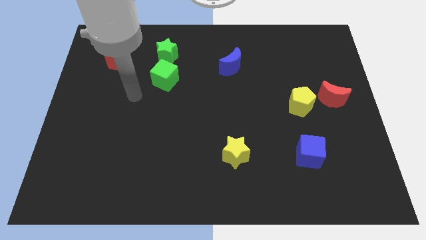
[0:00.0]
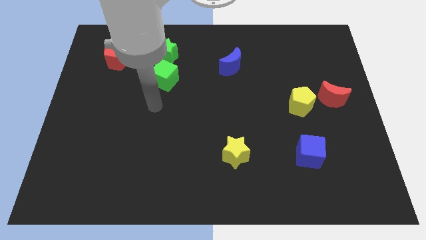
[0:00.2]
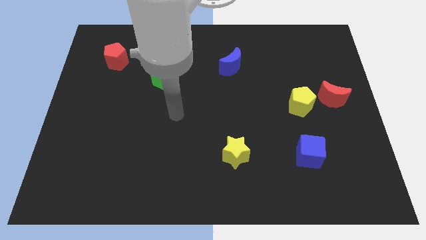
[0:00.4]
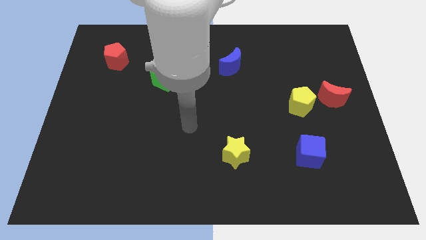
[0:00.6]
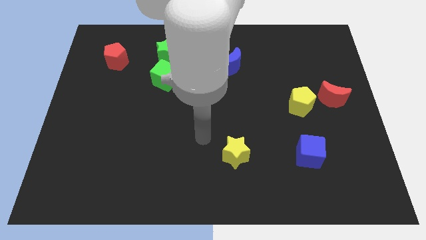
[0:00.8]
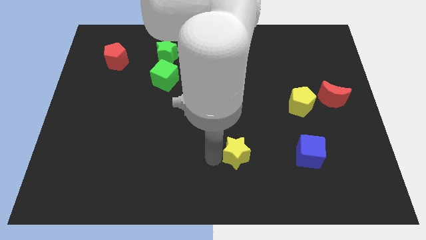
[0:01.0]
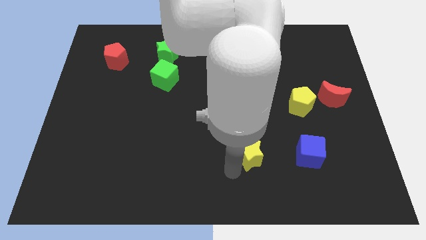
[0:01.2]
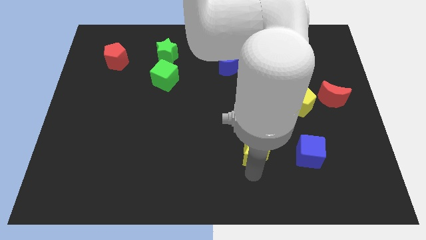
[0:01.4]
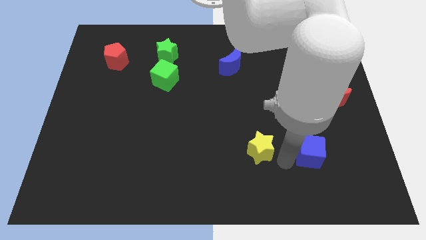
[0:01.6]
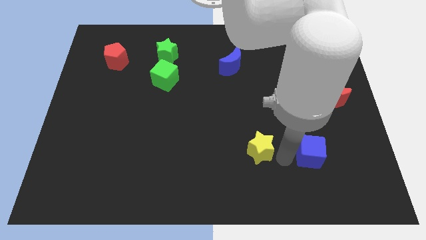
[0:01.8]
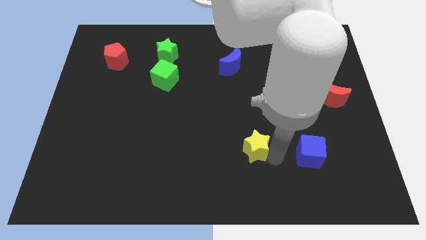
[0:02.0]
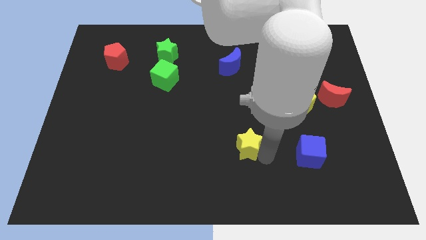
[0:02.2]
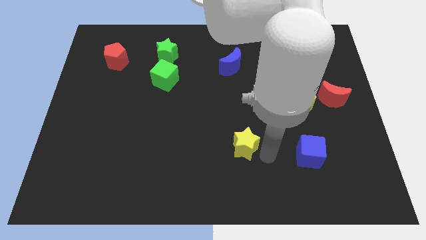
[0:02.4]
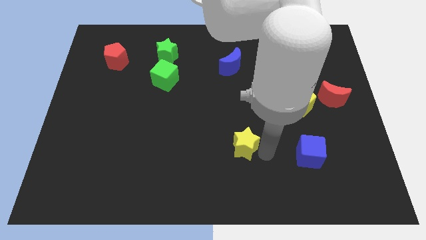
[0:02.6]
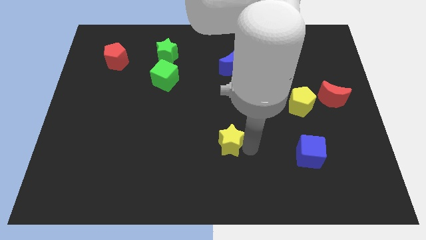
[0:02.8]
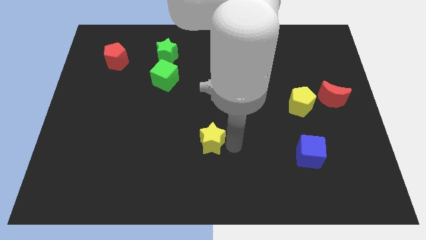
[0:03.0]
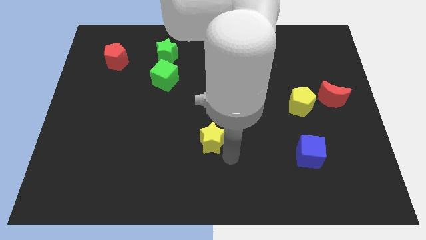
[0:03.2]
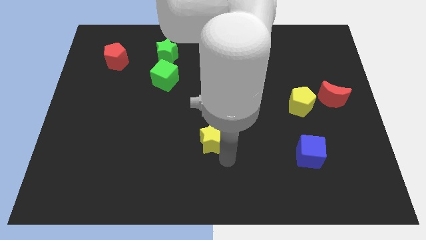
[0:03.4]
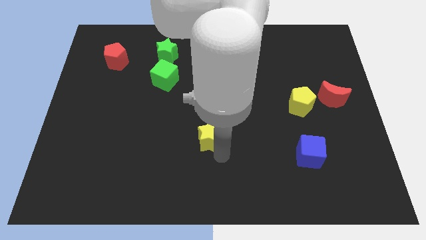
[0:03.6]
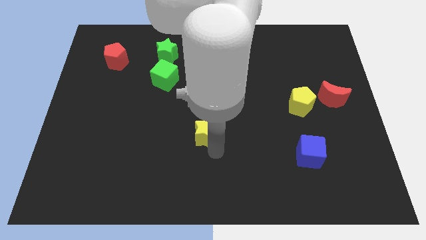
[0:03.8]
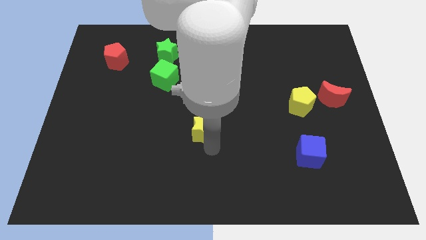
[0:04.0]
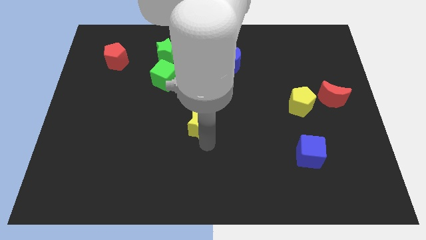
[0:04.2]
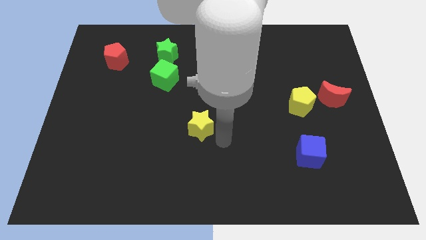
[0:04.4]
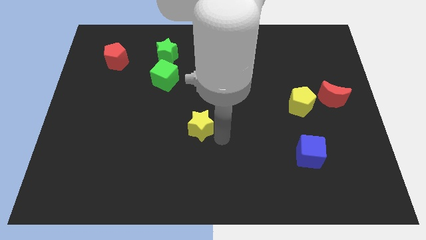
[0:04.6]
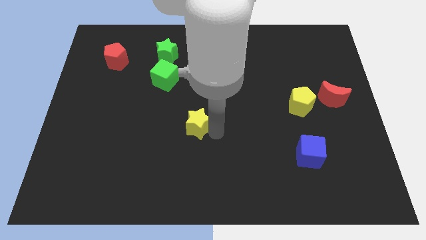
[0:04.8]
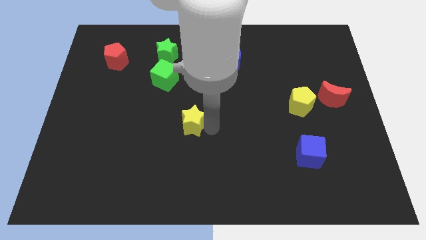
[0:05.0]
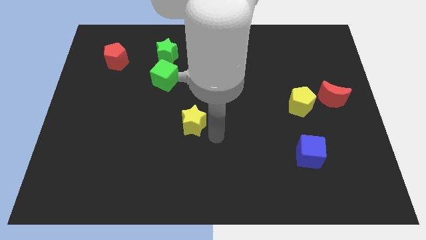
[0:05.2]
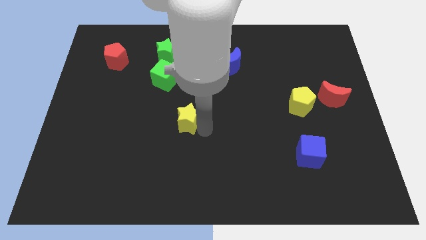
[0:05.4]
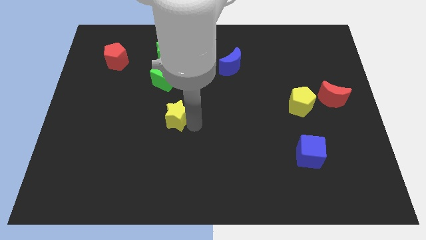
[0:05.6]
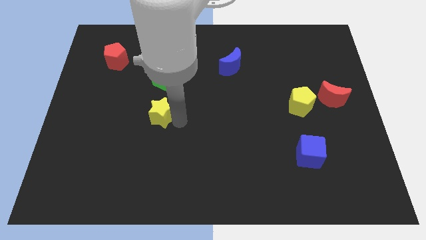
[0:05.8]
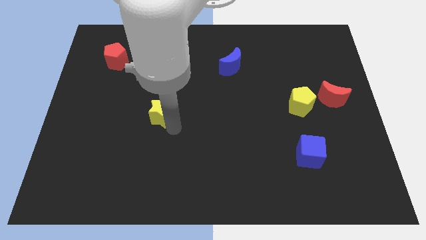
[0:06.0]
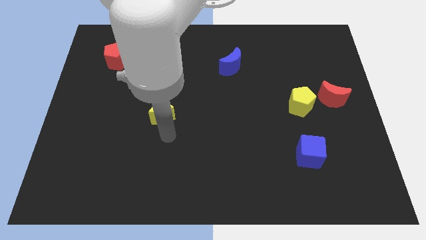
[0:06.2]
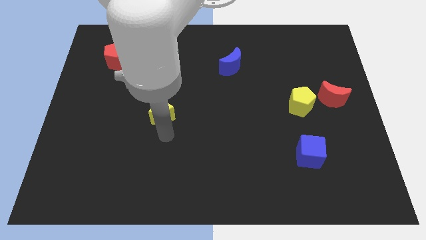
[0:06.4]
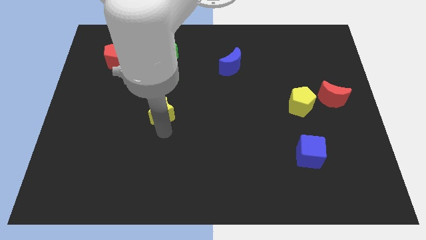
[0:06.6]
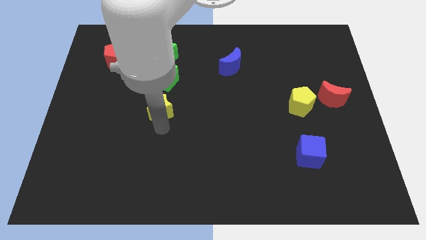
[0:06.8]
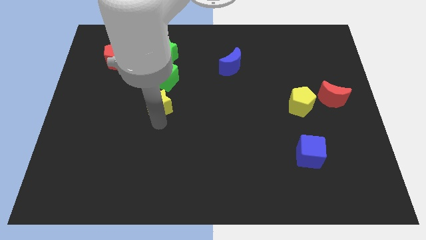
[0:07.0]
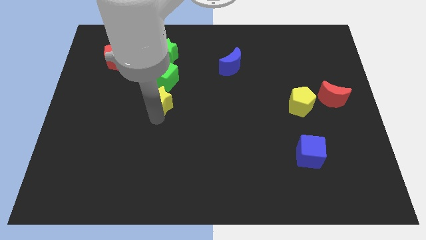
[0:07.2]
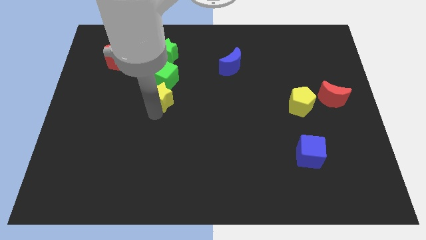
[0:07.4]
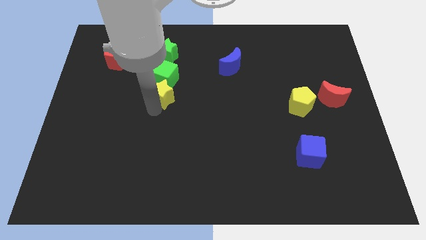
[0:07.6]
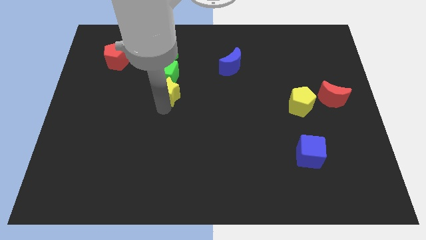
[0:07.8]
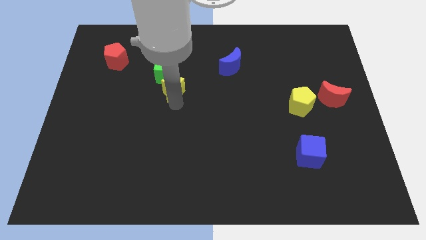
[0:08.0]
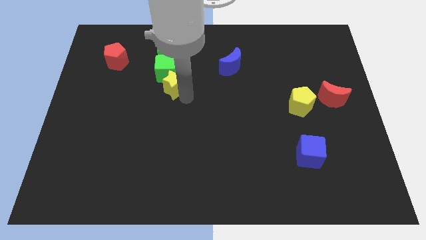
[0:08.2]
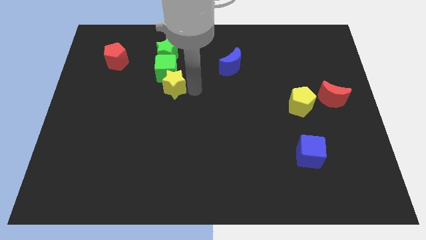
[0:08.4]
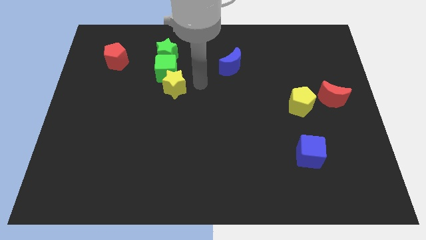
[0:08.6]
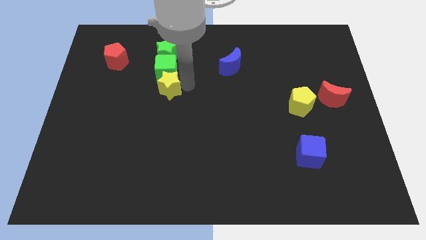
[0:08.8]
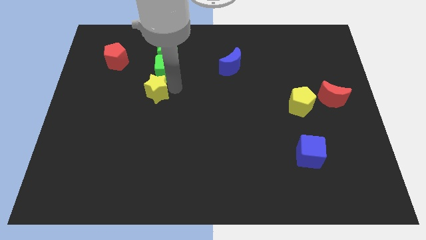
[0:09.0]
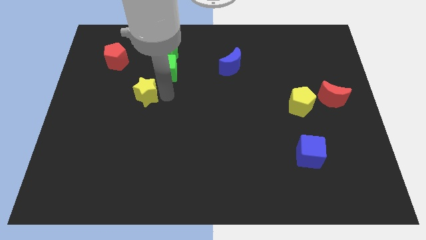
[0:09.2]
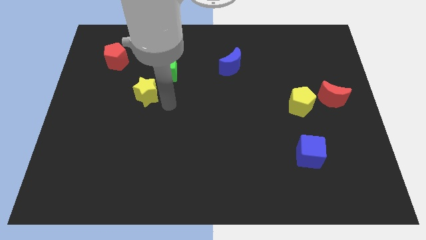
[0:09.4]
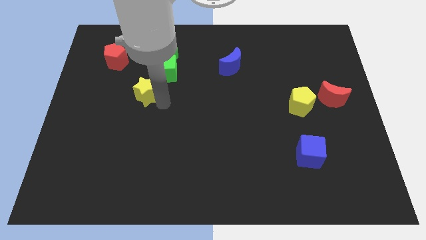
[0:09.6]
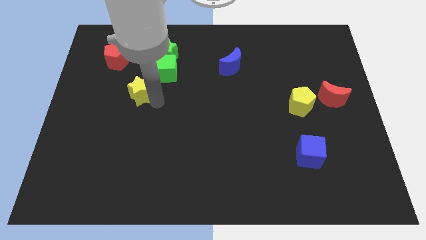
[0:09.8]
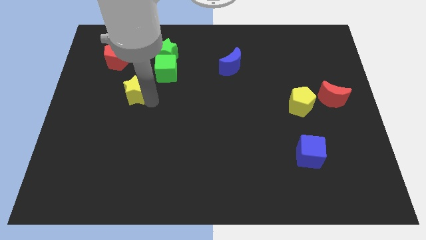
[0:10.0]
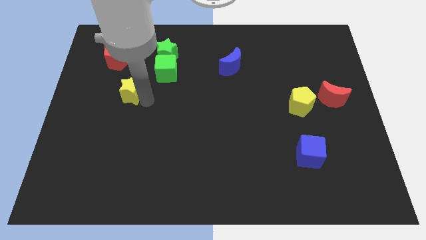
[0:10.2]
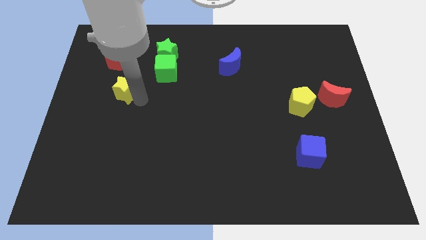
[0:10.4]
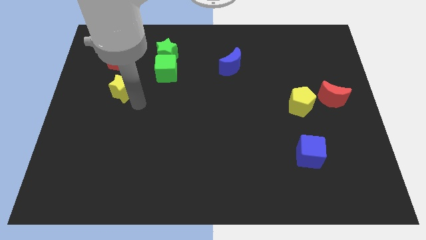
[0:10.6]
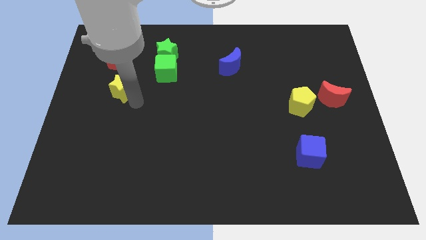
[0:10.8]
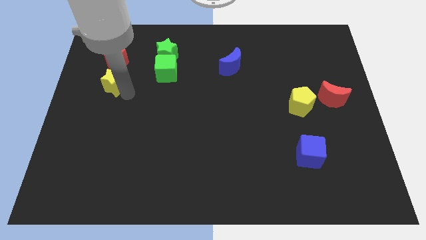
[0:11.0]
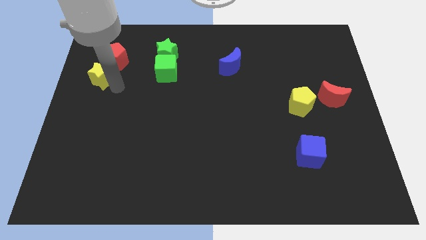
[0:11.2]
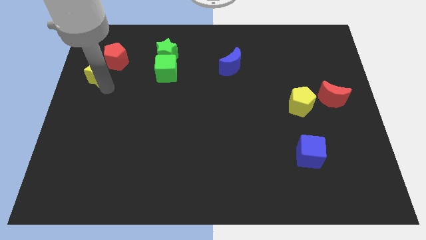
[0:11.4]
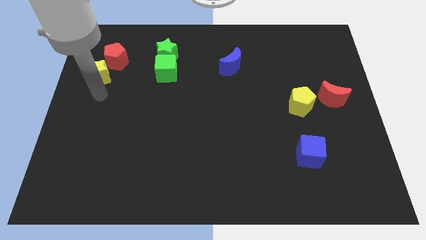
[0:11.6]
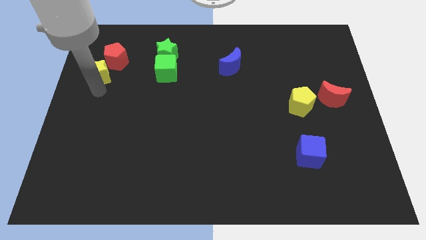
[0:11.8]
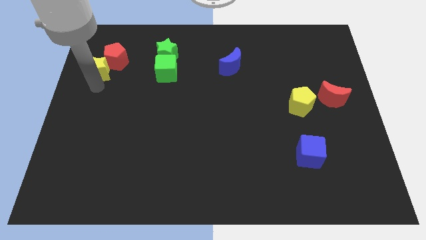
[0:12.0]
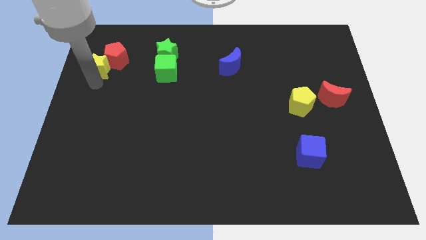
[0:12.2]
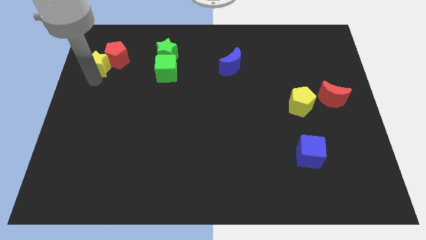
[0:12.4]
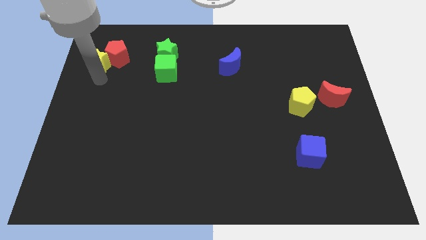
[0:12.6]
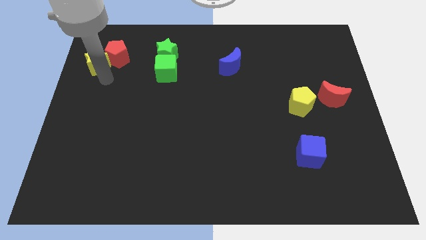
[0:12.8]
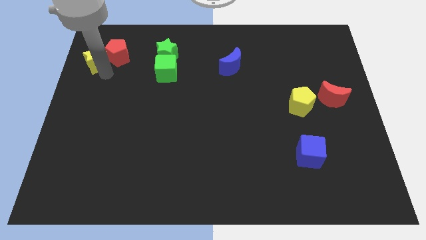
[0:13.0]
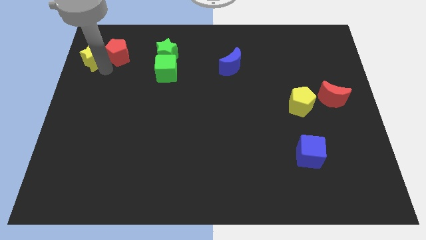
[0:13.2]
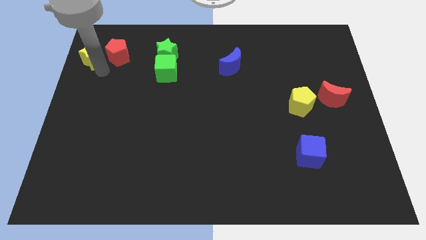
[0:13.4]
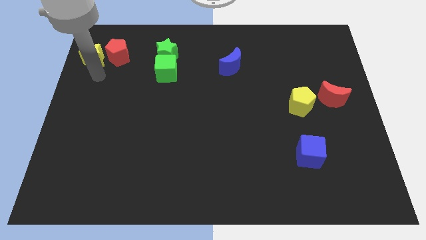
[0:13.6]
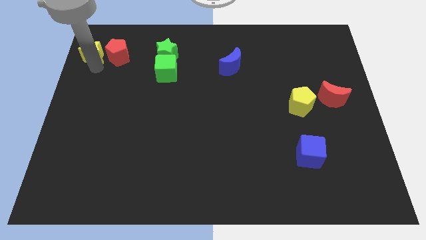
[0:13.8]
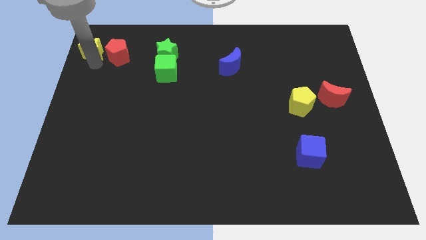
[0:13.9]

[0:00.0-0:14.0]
move the yellow star to the upper left corner
